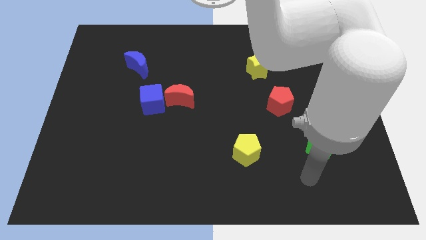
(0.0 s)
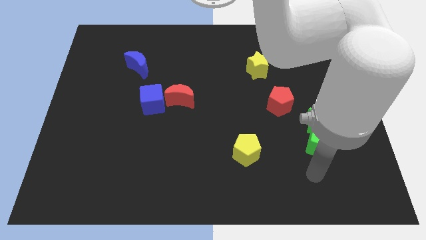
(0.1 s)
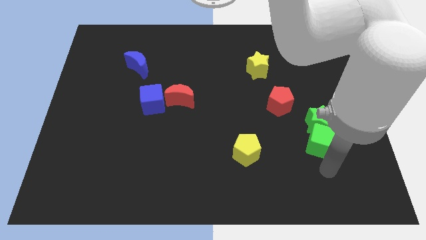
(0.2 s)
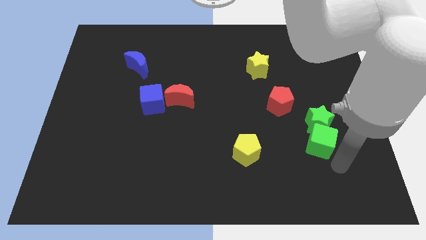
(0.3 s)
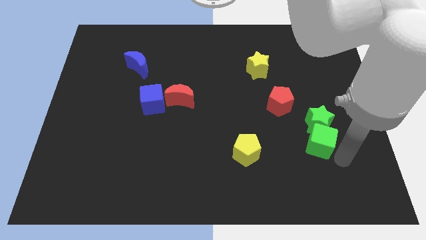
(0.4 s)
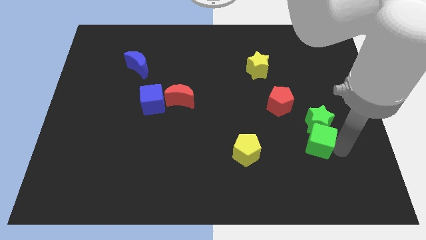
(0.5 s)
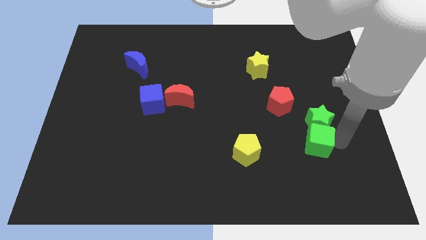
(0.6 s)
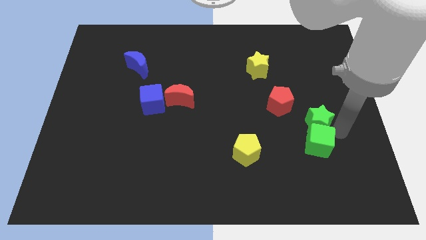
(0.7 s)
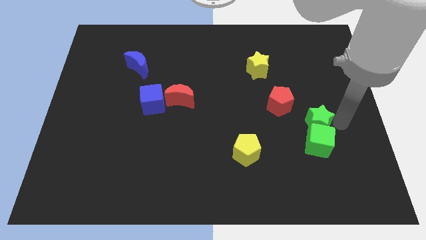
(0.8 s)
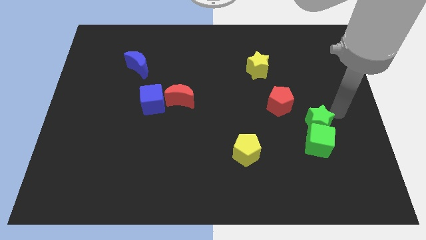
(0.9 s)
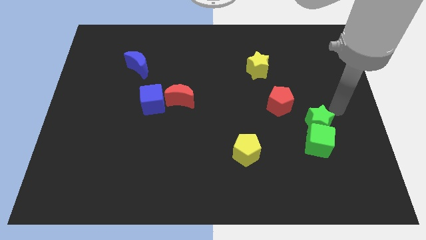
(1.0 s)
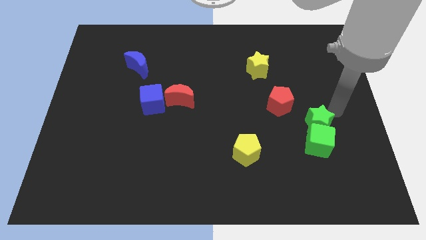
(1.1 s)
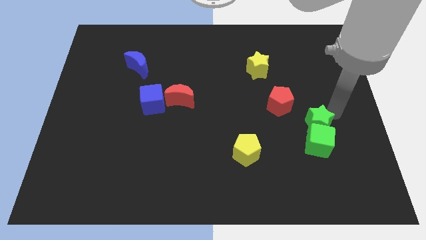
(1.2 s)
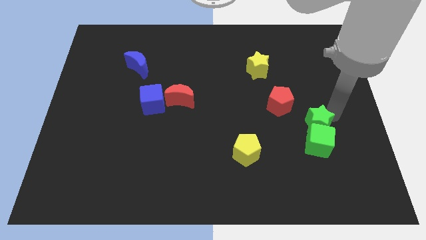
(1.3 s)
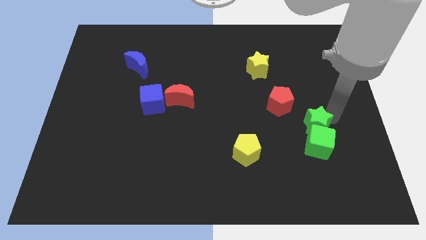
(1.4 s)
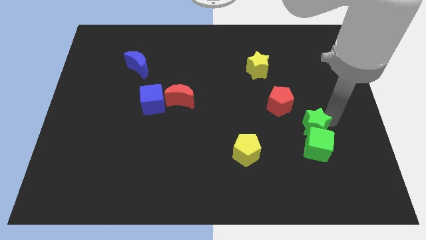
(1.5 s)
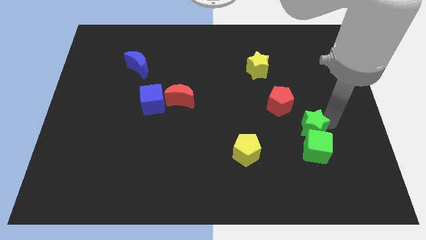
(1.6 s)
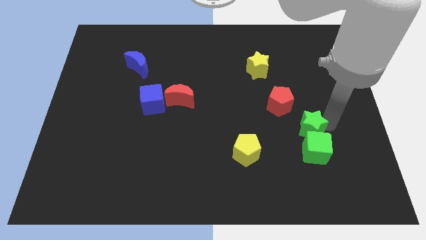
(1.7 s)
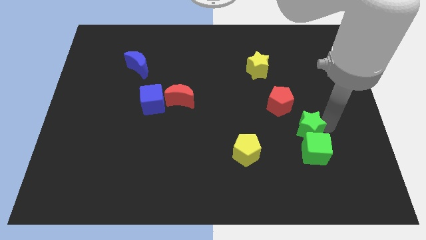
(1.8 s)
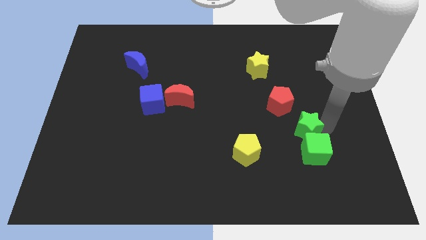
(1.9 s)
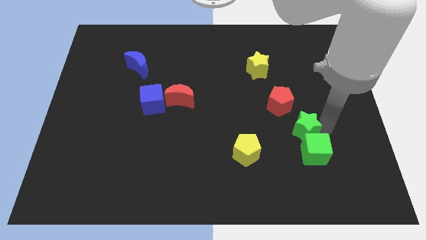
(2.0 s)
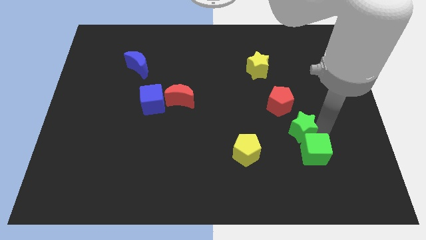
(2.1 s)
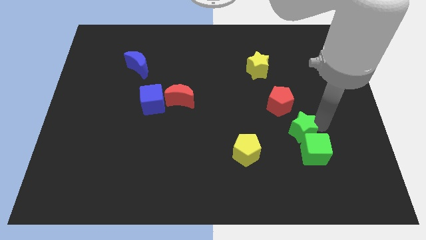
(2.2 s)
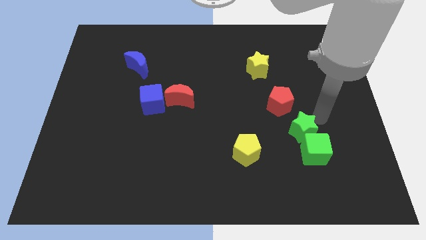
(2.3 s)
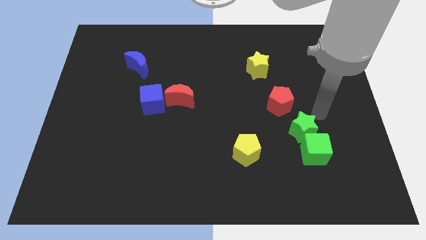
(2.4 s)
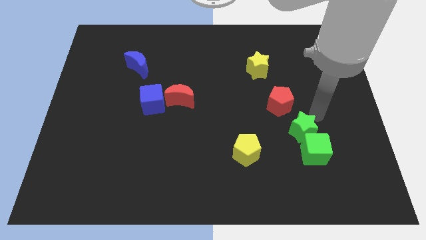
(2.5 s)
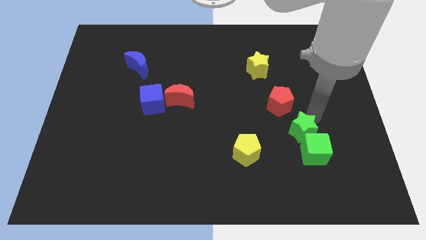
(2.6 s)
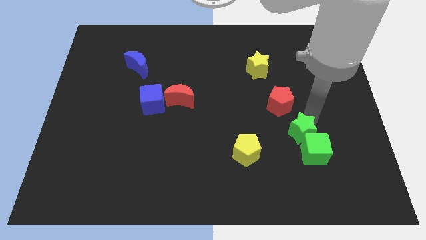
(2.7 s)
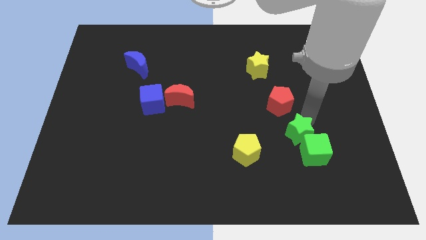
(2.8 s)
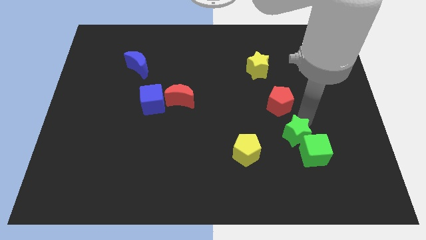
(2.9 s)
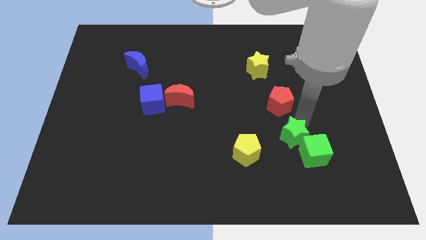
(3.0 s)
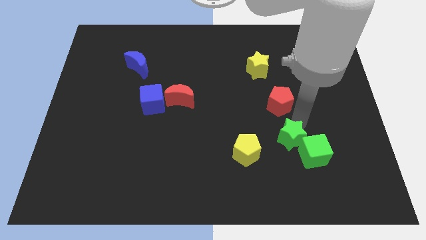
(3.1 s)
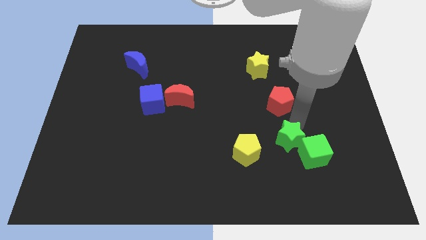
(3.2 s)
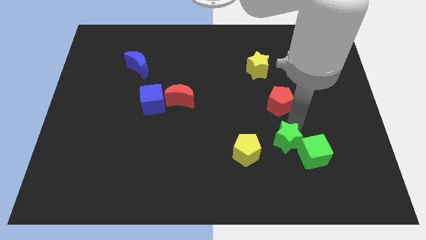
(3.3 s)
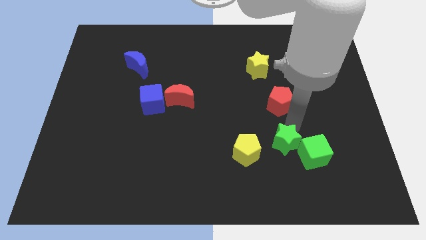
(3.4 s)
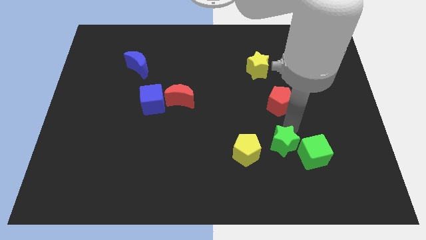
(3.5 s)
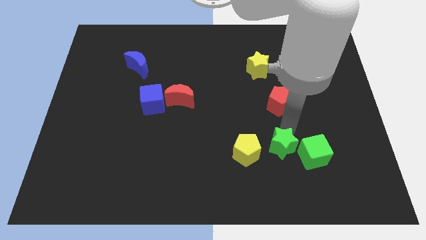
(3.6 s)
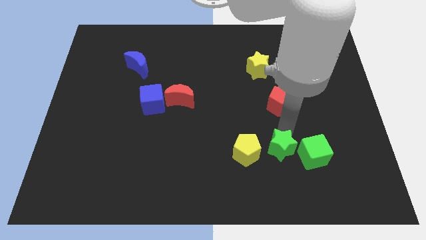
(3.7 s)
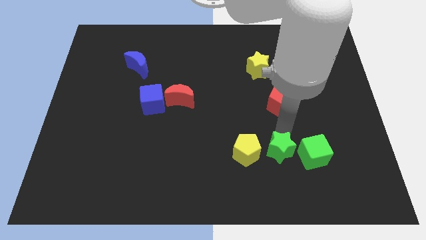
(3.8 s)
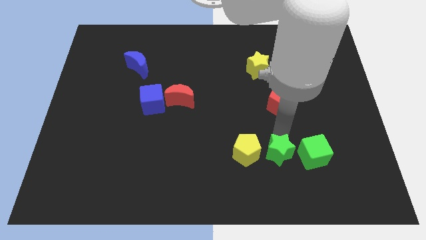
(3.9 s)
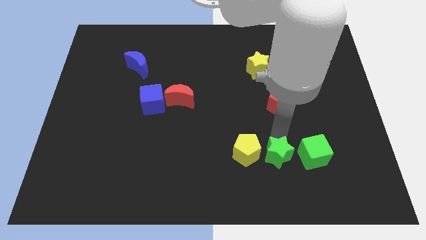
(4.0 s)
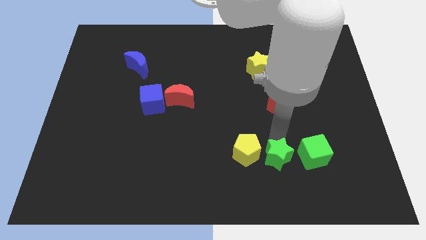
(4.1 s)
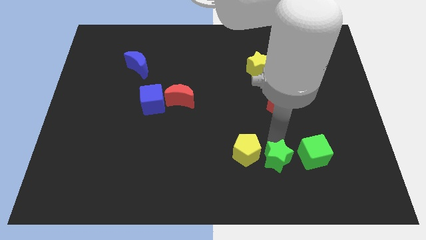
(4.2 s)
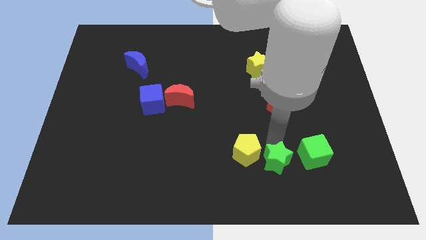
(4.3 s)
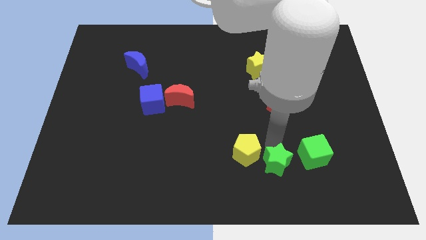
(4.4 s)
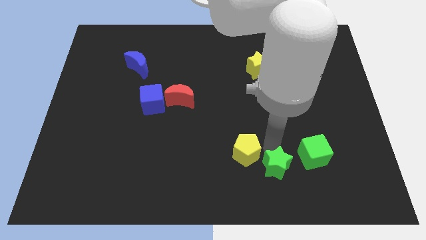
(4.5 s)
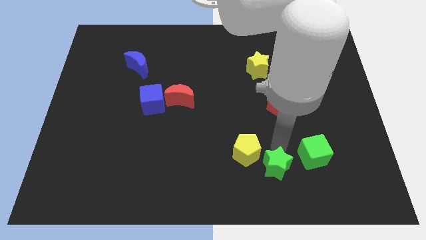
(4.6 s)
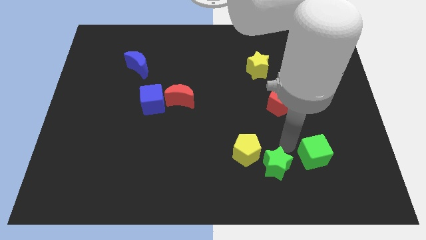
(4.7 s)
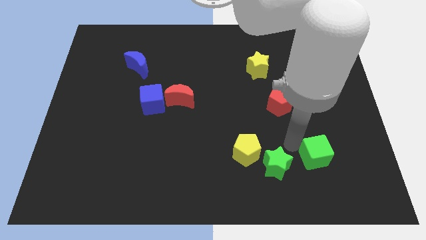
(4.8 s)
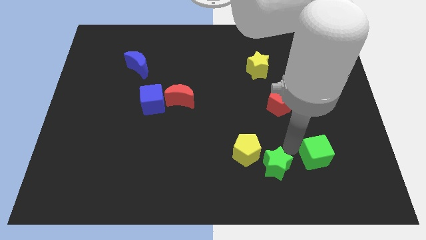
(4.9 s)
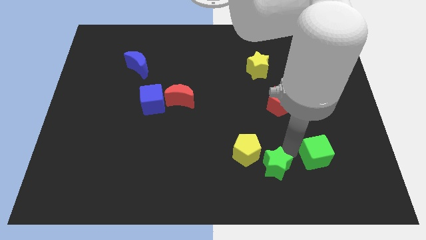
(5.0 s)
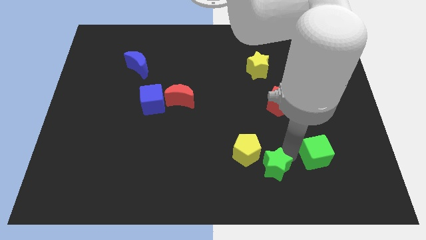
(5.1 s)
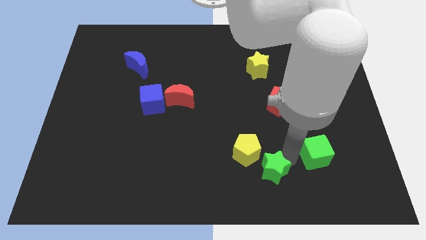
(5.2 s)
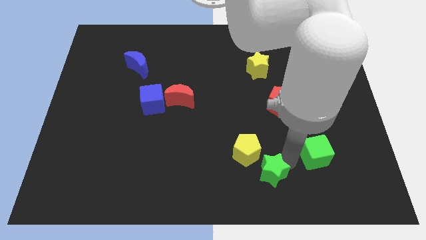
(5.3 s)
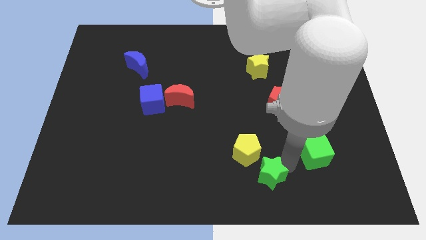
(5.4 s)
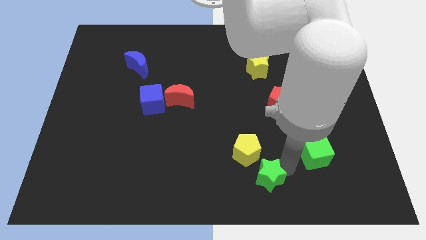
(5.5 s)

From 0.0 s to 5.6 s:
slide the green star to the bottom
